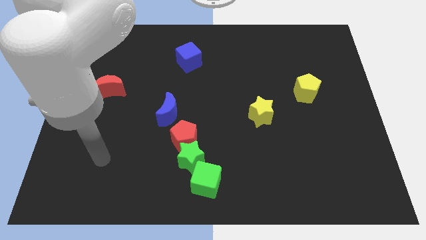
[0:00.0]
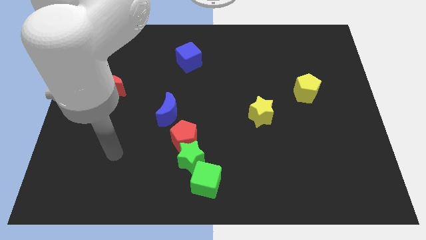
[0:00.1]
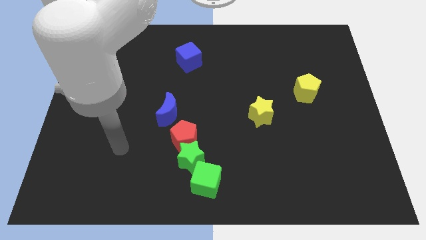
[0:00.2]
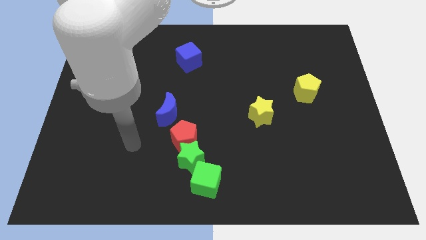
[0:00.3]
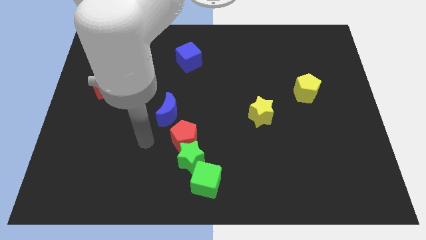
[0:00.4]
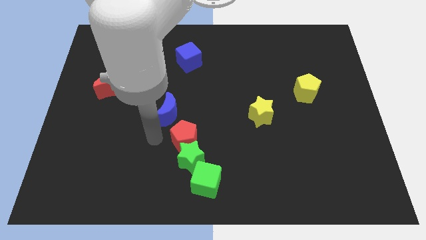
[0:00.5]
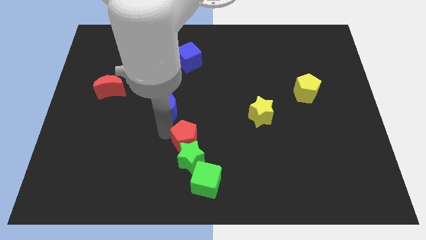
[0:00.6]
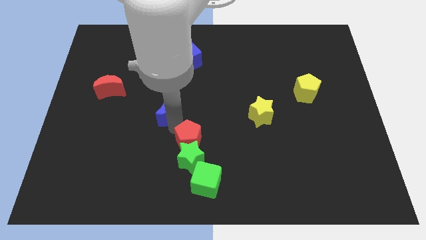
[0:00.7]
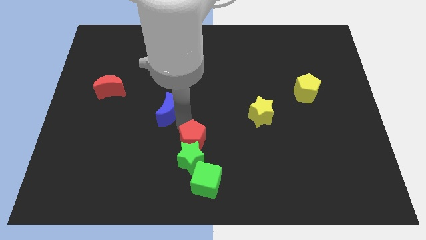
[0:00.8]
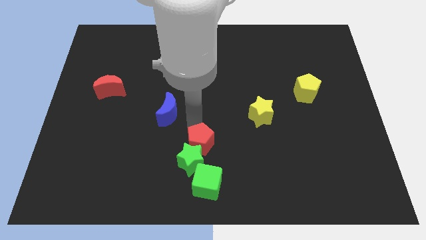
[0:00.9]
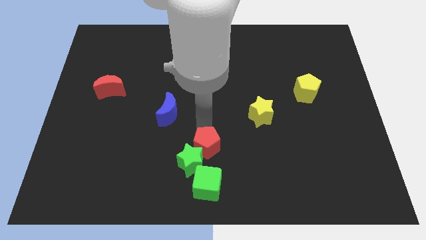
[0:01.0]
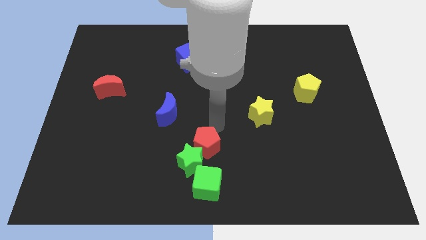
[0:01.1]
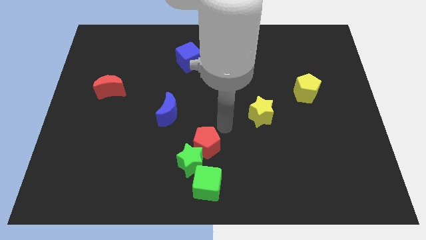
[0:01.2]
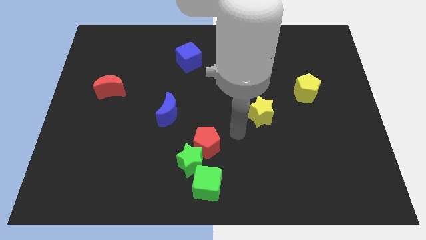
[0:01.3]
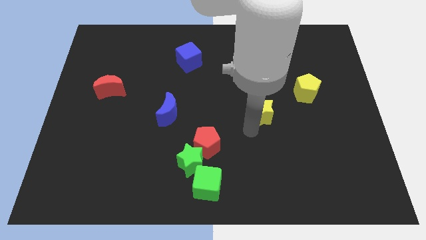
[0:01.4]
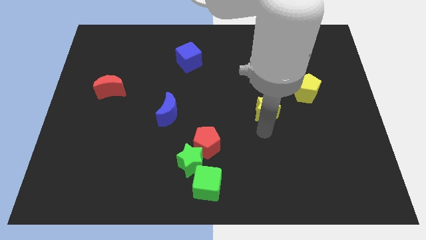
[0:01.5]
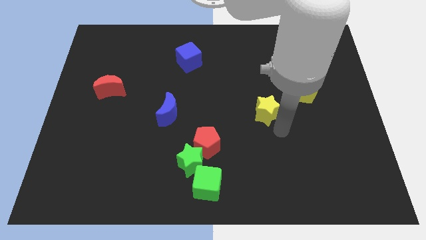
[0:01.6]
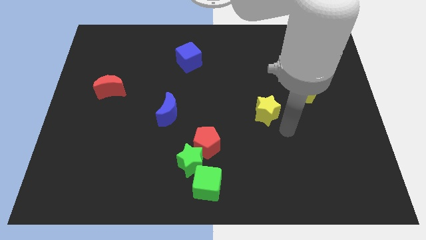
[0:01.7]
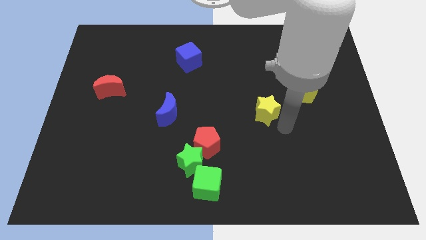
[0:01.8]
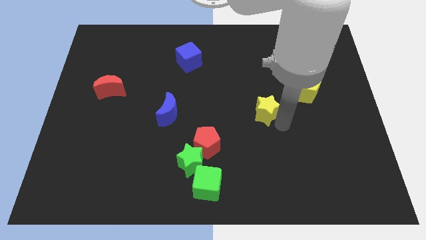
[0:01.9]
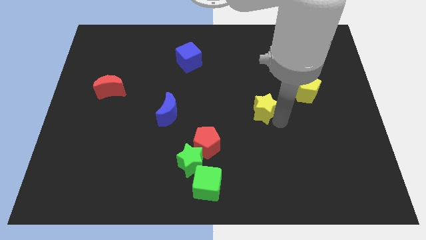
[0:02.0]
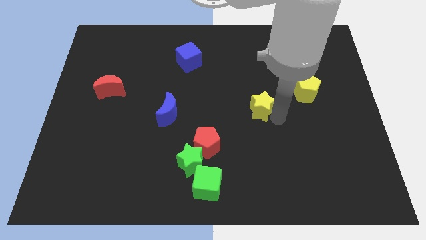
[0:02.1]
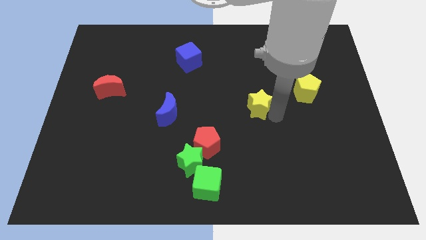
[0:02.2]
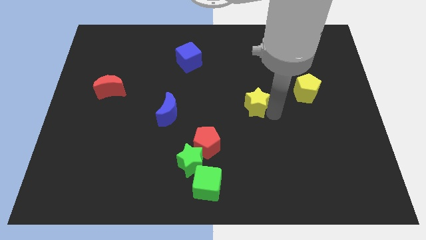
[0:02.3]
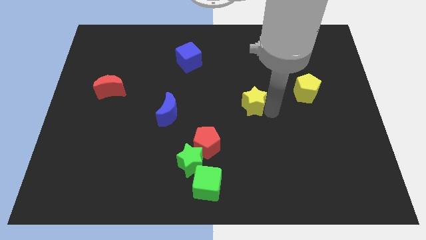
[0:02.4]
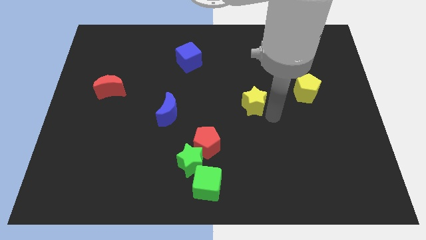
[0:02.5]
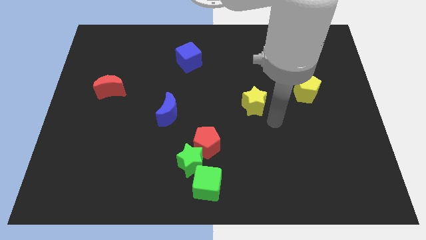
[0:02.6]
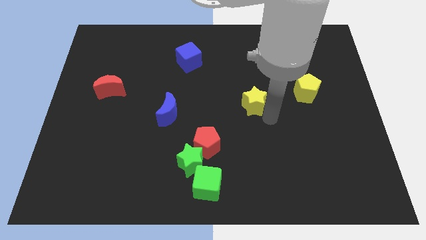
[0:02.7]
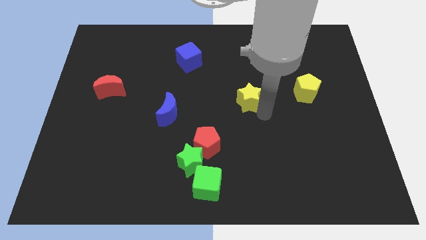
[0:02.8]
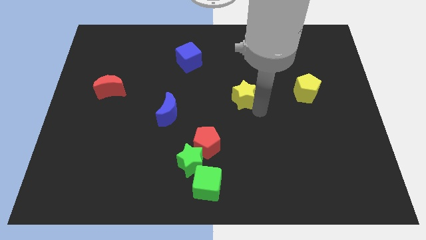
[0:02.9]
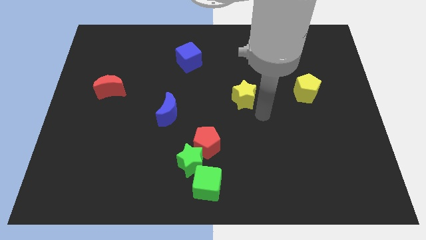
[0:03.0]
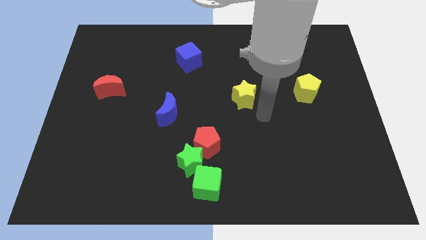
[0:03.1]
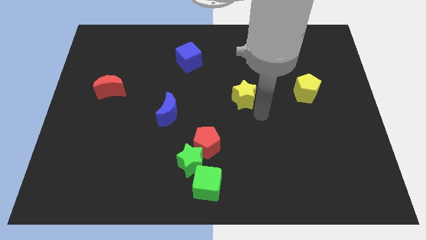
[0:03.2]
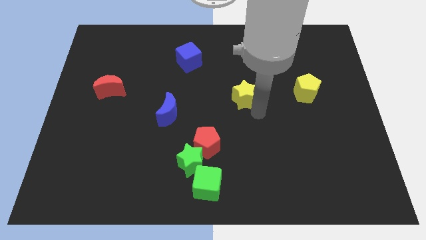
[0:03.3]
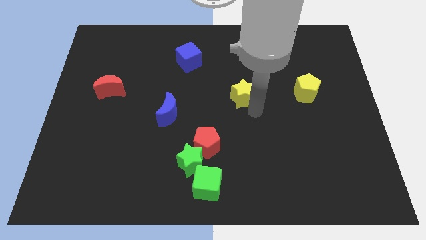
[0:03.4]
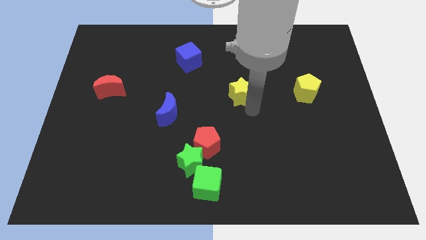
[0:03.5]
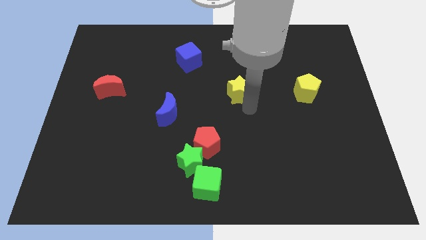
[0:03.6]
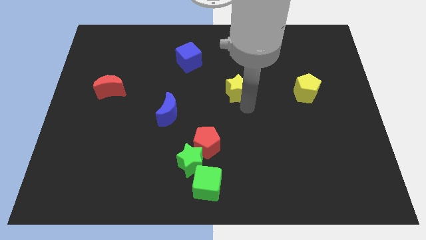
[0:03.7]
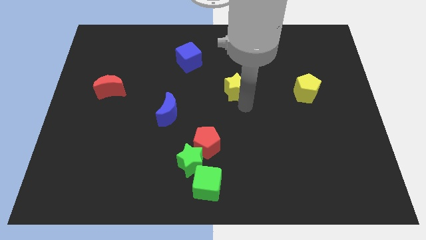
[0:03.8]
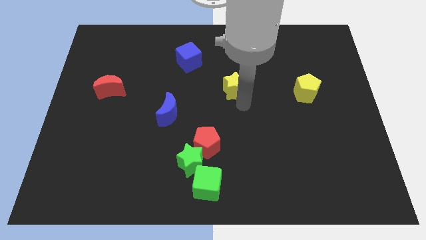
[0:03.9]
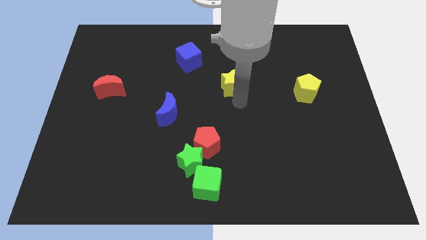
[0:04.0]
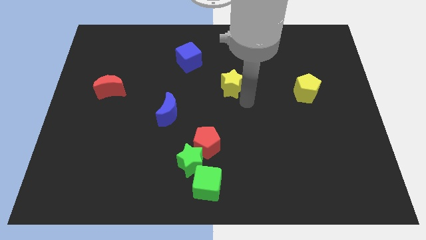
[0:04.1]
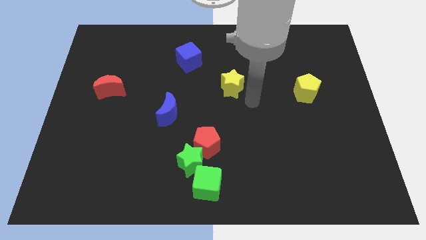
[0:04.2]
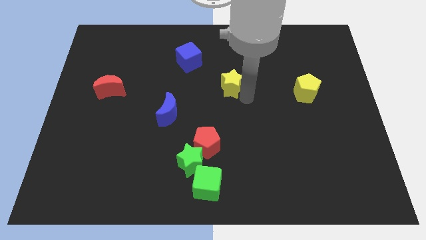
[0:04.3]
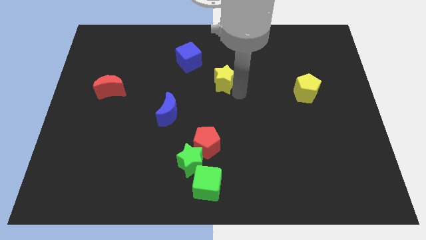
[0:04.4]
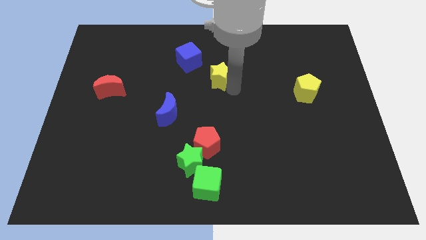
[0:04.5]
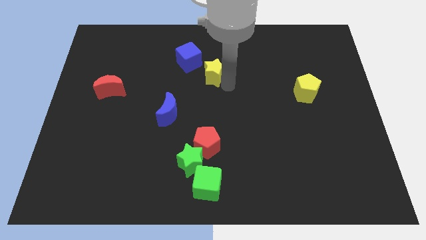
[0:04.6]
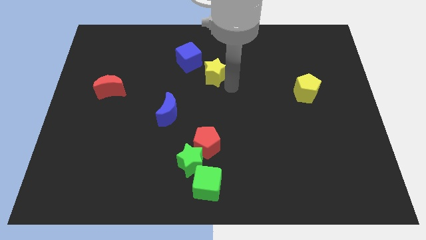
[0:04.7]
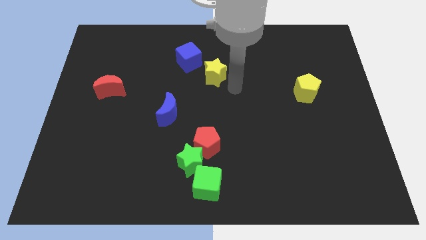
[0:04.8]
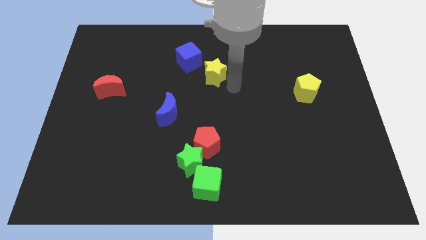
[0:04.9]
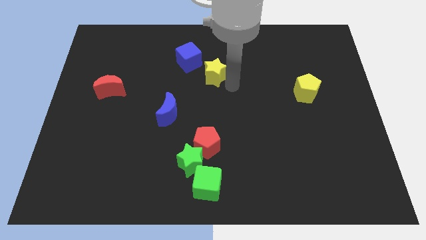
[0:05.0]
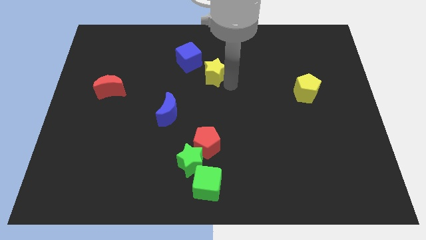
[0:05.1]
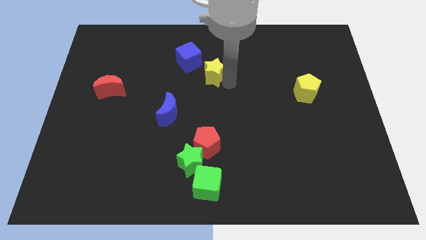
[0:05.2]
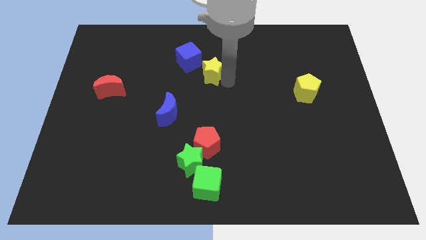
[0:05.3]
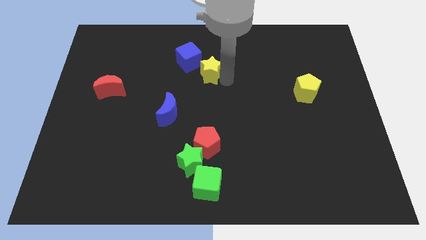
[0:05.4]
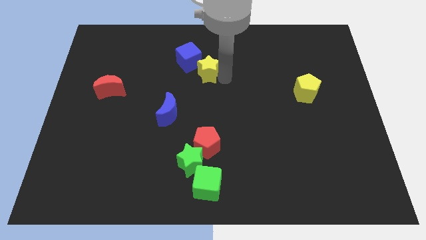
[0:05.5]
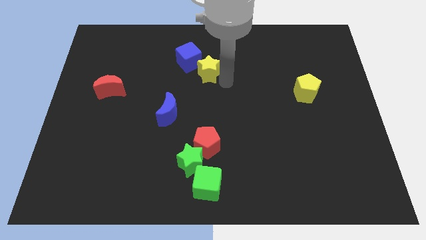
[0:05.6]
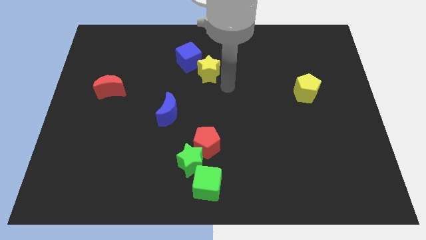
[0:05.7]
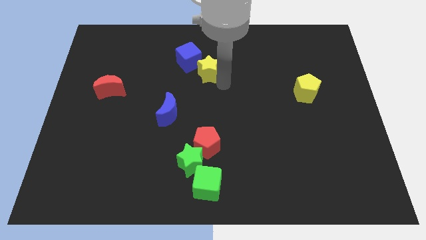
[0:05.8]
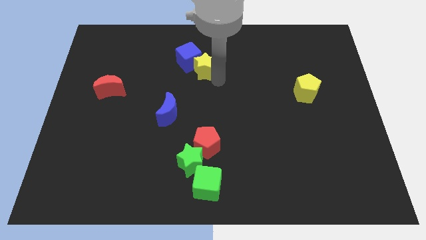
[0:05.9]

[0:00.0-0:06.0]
put the yellow star close to the blue cube

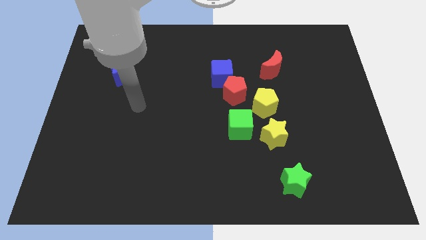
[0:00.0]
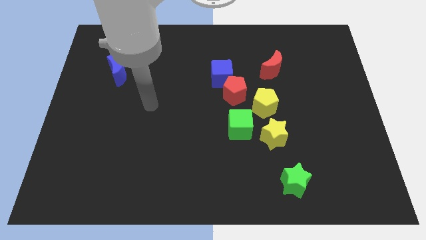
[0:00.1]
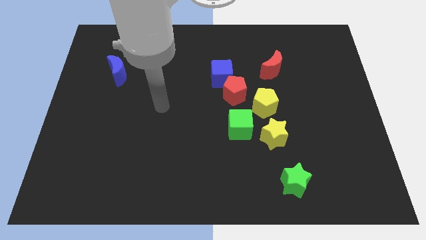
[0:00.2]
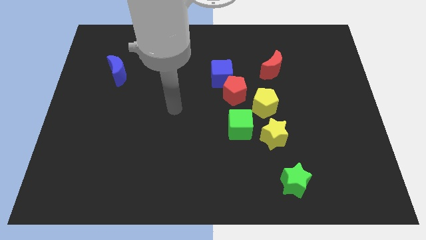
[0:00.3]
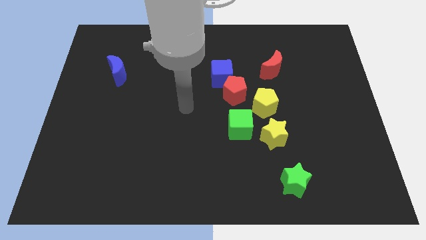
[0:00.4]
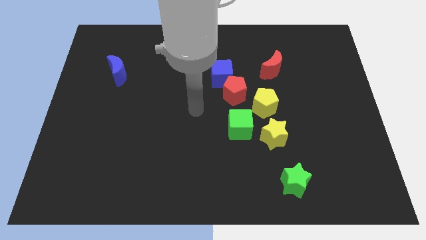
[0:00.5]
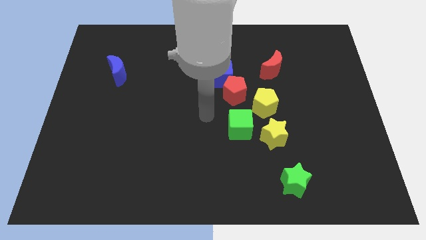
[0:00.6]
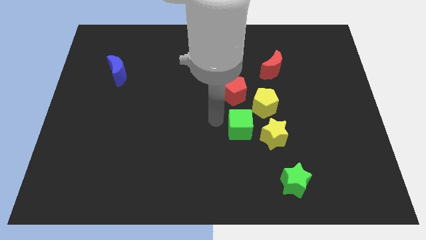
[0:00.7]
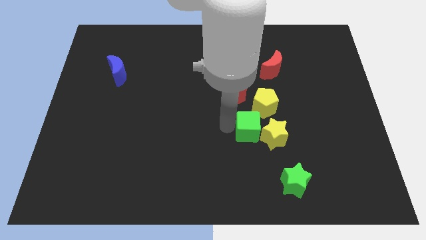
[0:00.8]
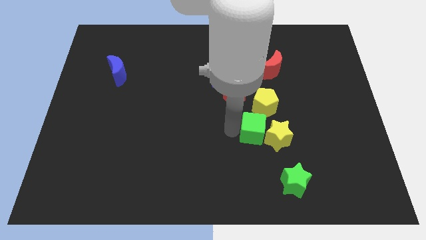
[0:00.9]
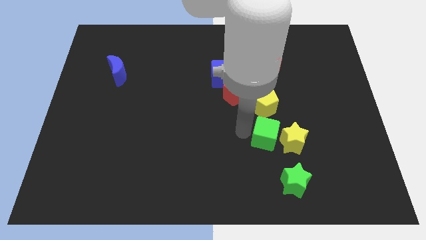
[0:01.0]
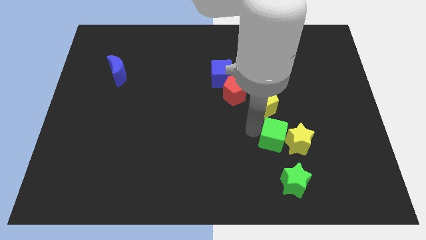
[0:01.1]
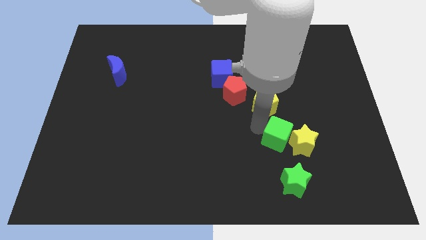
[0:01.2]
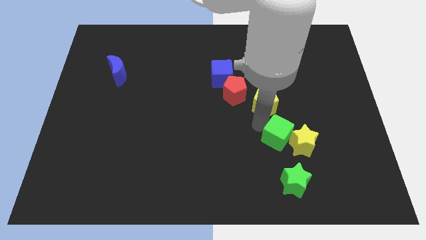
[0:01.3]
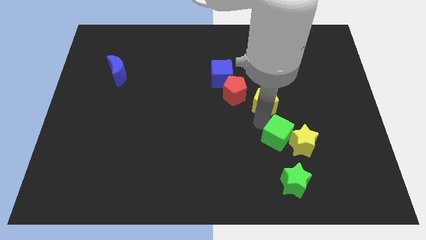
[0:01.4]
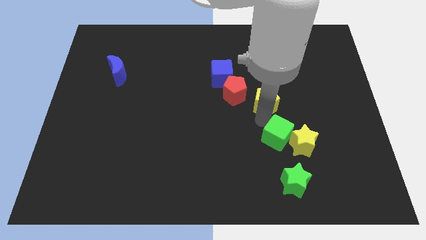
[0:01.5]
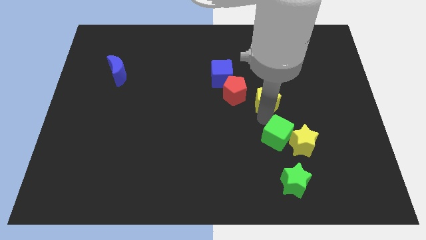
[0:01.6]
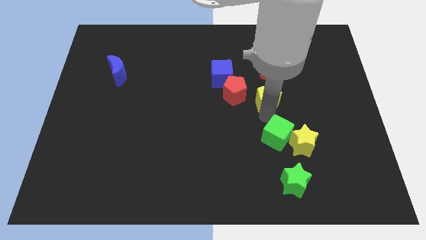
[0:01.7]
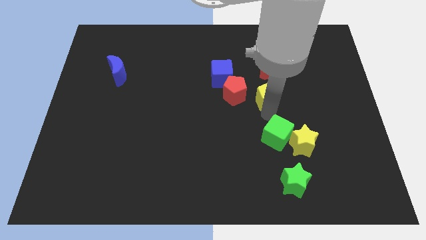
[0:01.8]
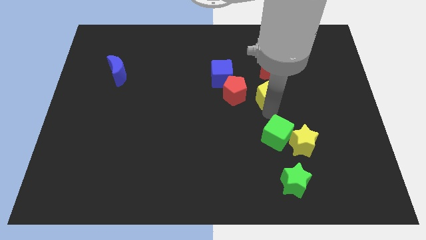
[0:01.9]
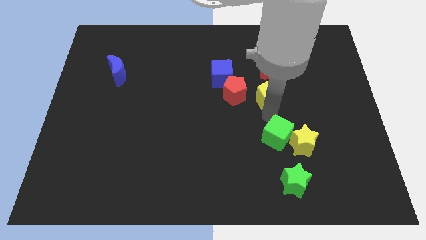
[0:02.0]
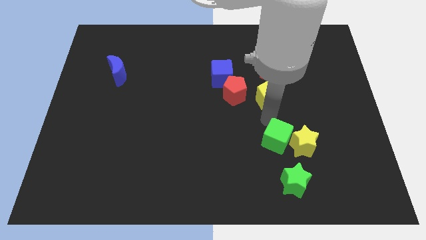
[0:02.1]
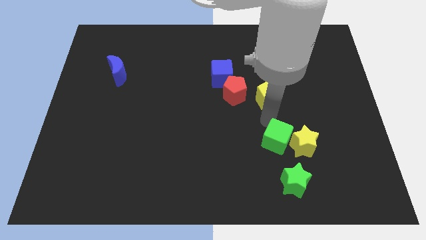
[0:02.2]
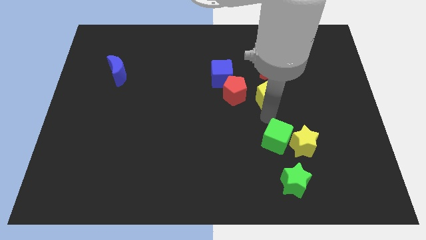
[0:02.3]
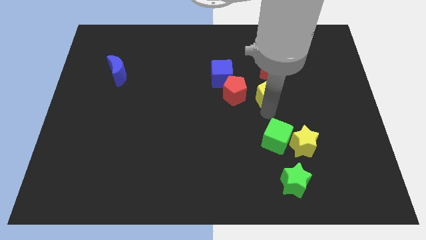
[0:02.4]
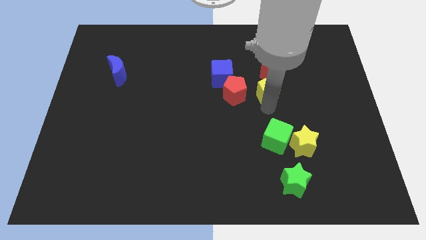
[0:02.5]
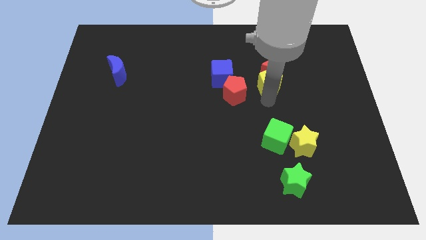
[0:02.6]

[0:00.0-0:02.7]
move the yellow pentagon to the red moon
